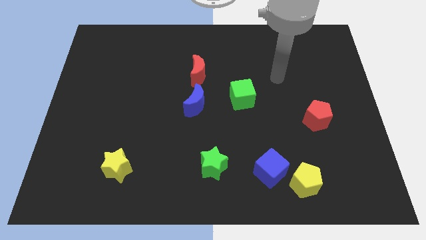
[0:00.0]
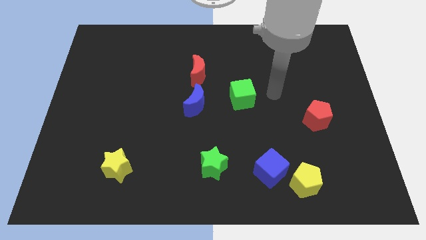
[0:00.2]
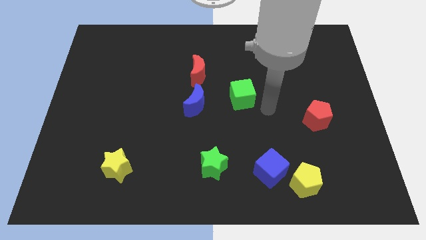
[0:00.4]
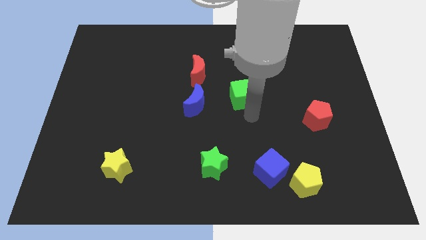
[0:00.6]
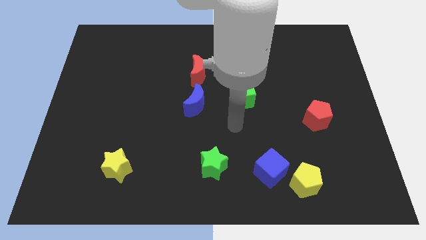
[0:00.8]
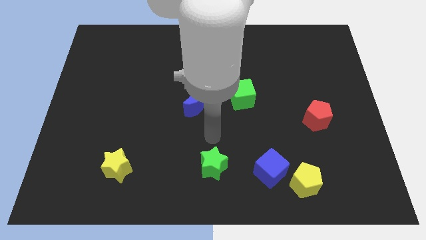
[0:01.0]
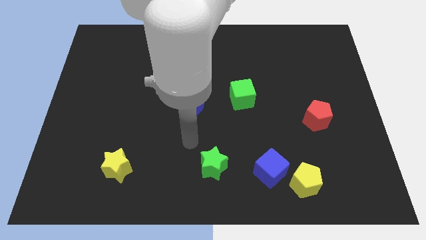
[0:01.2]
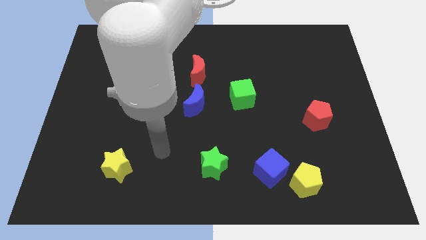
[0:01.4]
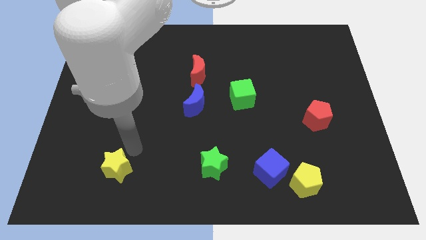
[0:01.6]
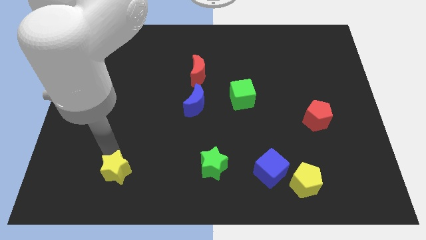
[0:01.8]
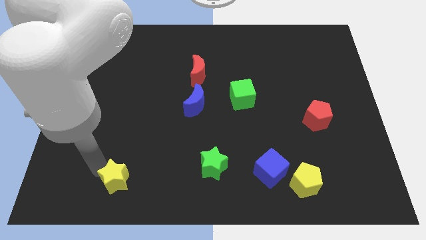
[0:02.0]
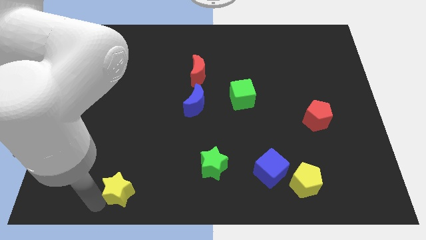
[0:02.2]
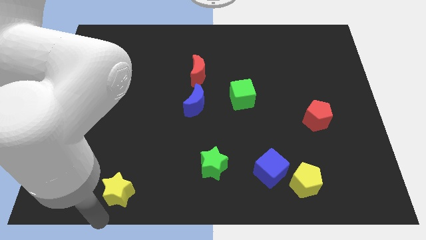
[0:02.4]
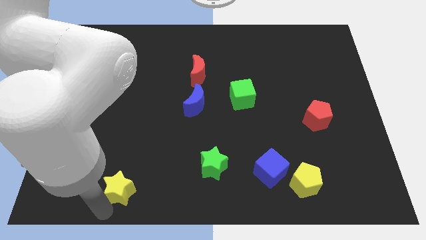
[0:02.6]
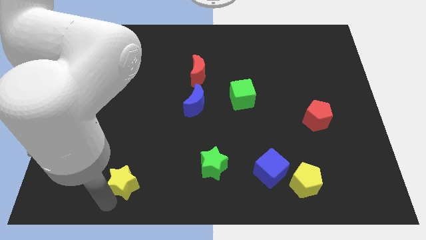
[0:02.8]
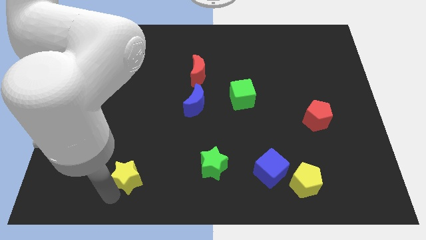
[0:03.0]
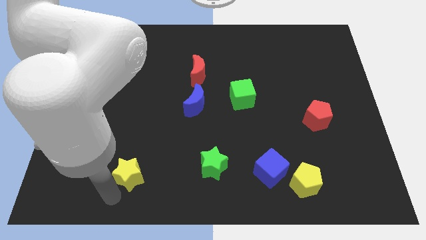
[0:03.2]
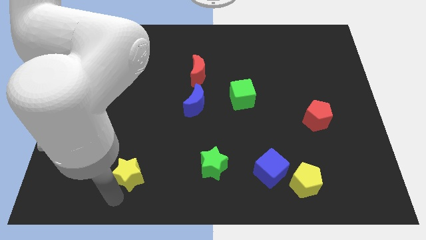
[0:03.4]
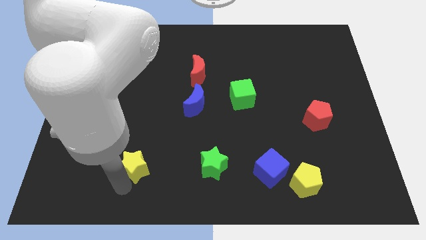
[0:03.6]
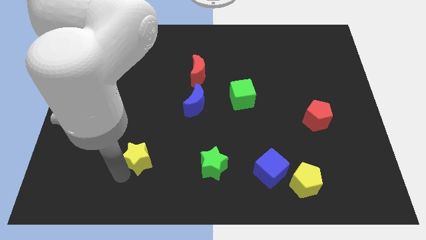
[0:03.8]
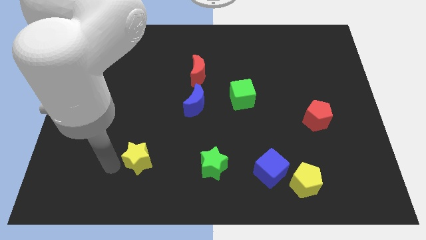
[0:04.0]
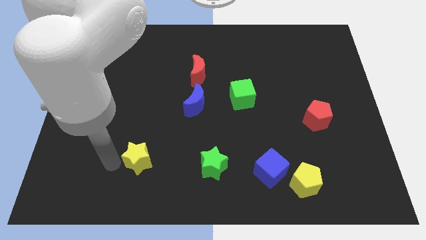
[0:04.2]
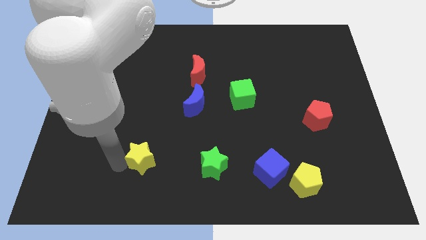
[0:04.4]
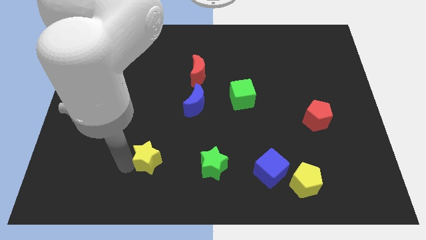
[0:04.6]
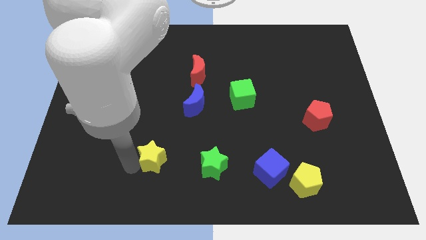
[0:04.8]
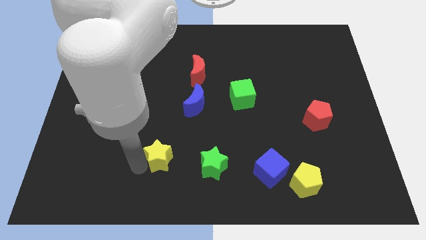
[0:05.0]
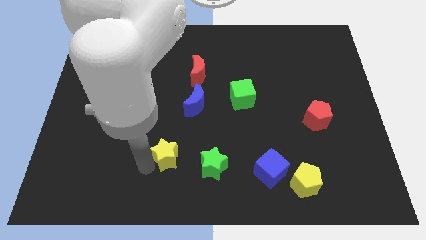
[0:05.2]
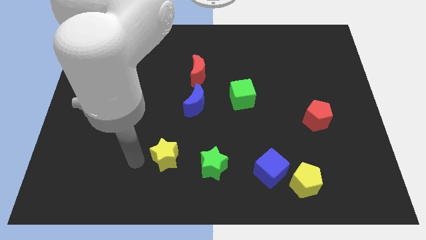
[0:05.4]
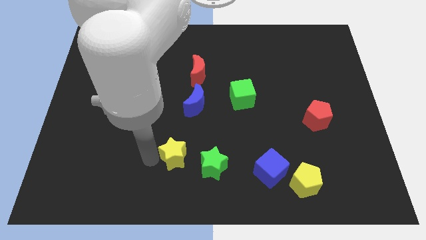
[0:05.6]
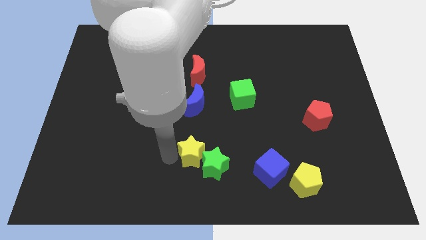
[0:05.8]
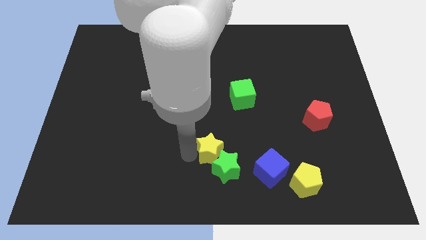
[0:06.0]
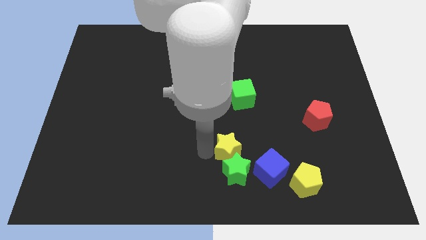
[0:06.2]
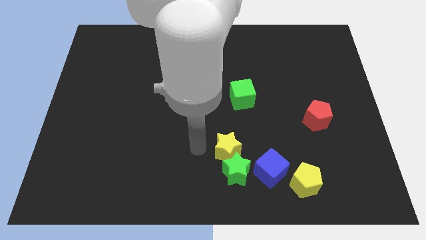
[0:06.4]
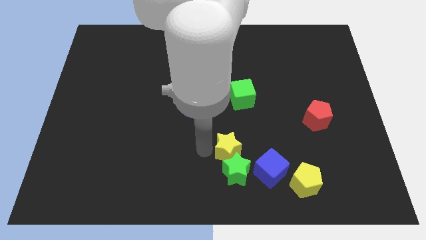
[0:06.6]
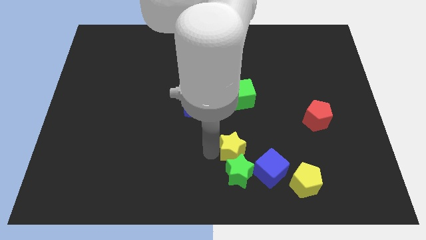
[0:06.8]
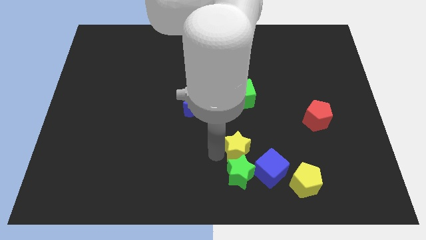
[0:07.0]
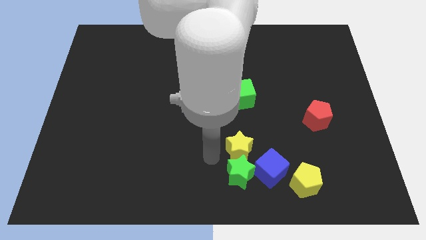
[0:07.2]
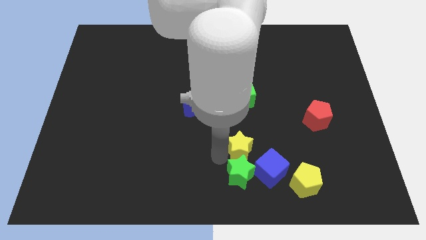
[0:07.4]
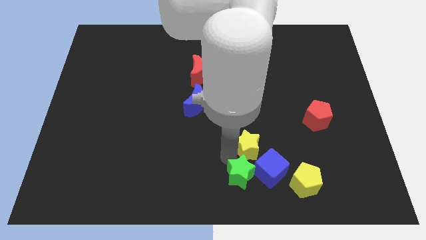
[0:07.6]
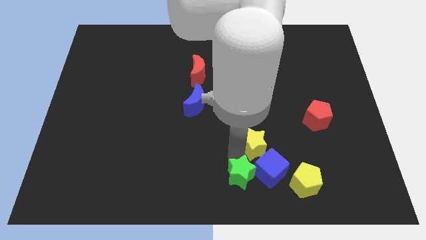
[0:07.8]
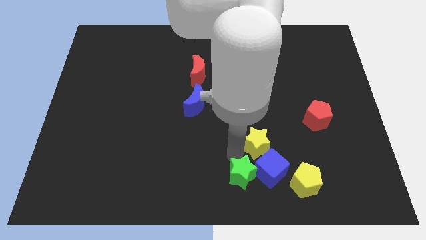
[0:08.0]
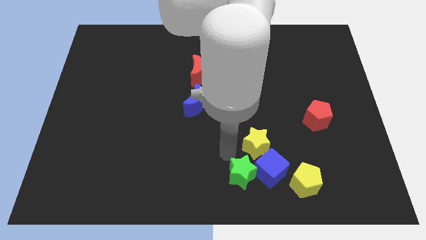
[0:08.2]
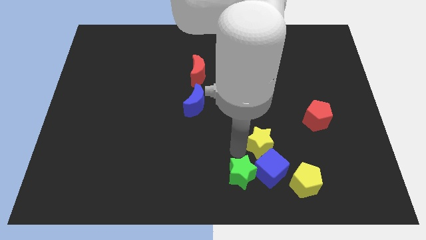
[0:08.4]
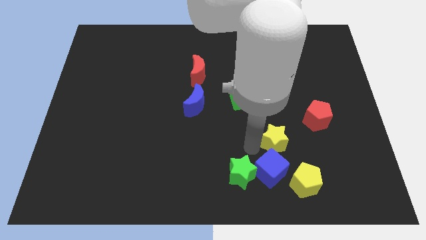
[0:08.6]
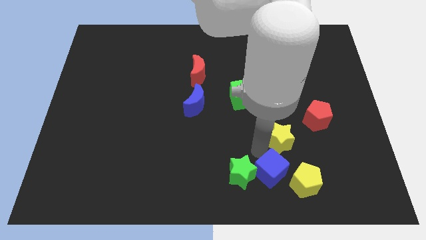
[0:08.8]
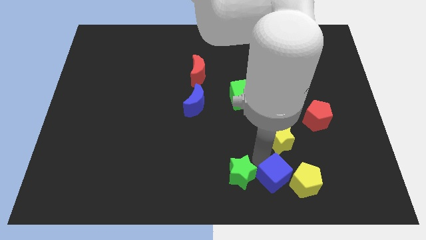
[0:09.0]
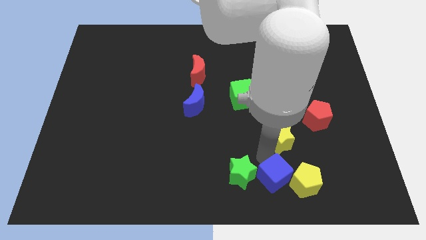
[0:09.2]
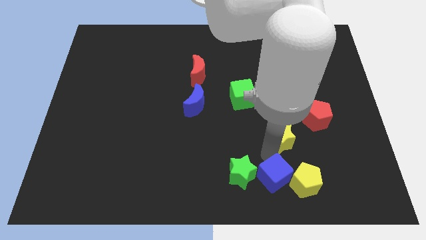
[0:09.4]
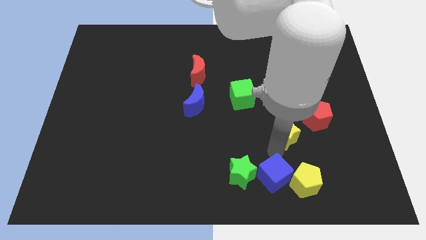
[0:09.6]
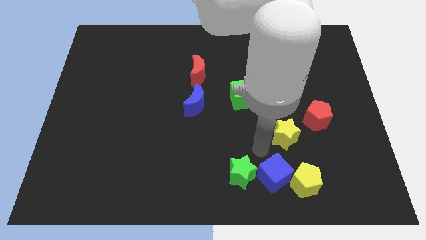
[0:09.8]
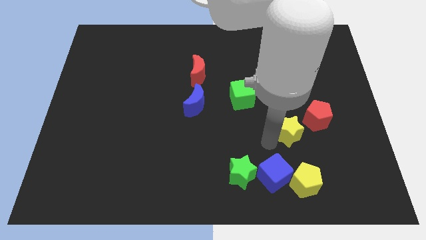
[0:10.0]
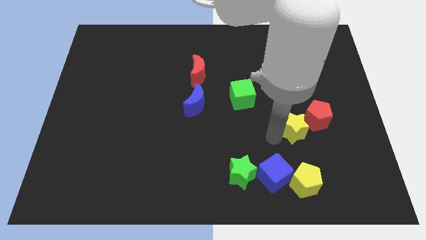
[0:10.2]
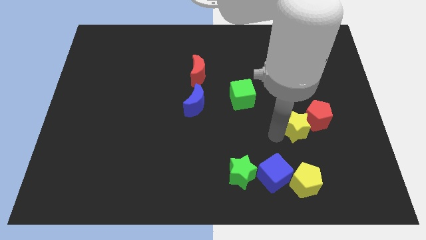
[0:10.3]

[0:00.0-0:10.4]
move the yellow star next to the red pentagon

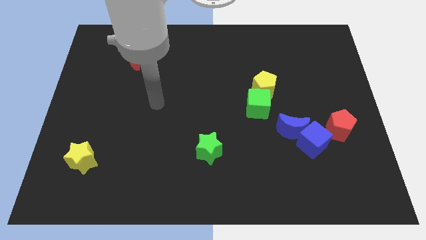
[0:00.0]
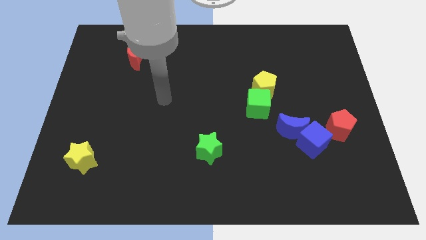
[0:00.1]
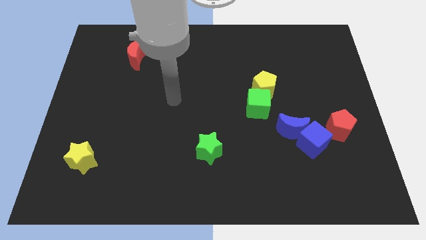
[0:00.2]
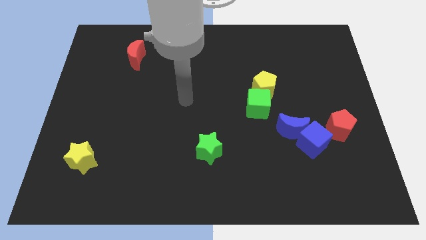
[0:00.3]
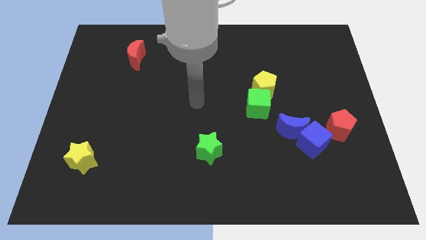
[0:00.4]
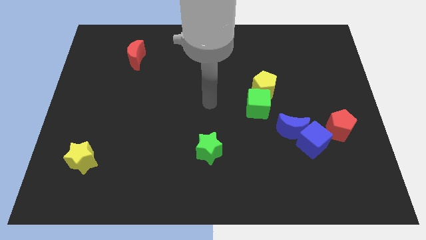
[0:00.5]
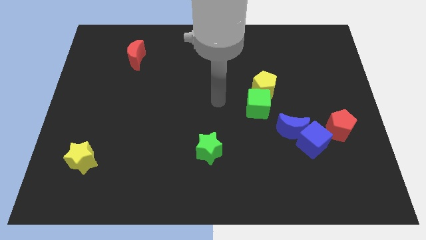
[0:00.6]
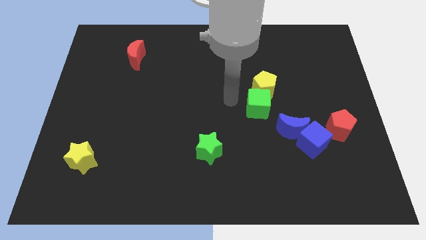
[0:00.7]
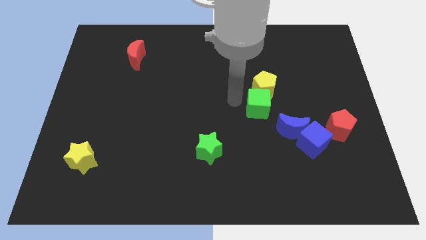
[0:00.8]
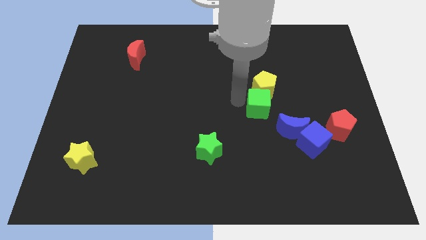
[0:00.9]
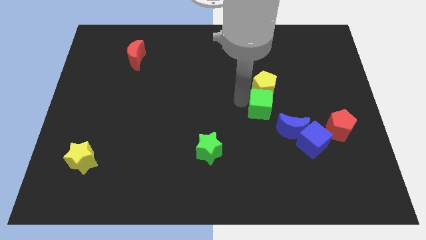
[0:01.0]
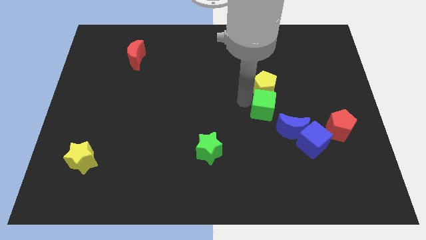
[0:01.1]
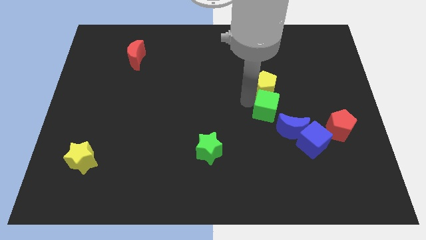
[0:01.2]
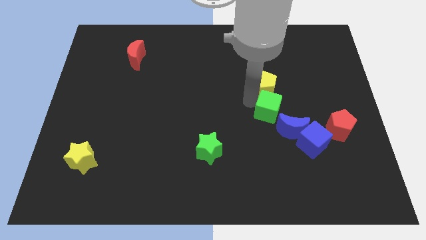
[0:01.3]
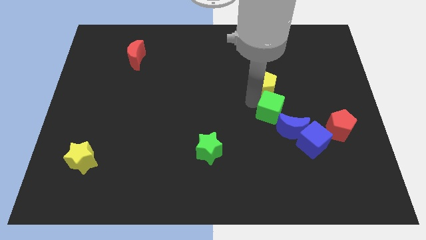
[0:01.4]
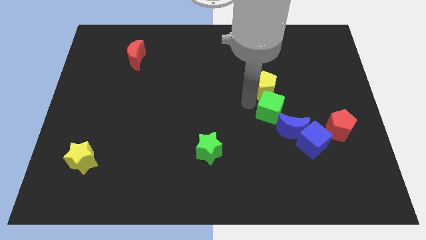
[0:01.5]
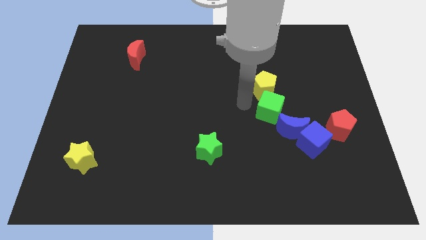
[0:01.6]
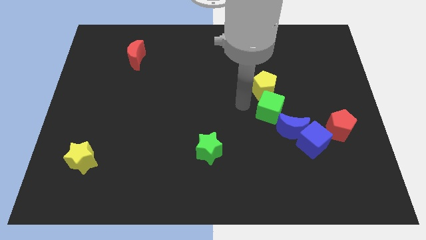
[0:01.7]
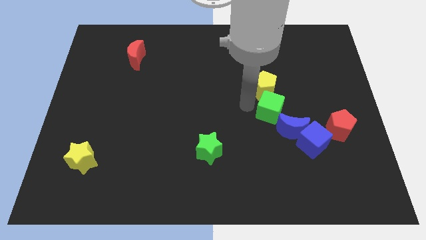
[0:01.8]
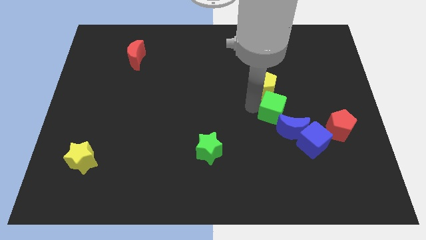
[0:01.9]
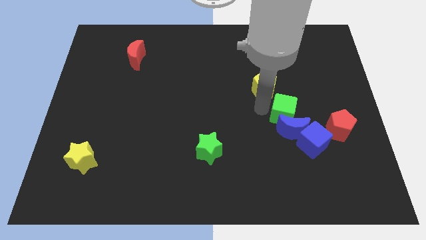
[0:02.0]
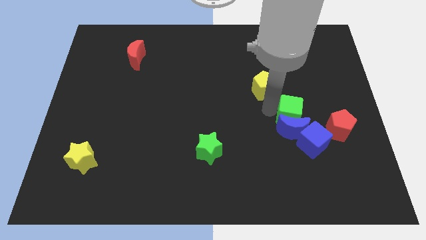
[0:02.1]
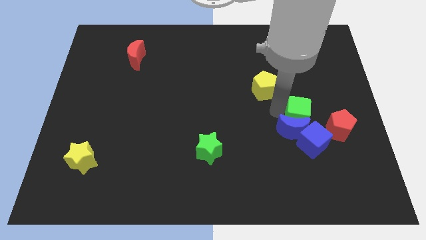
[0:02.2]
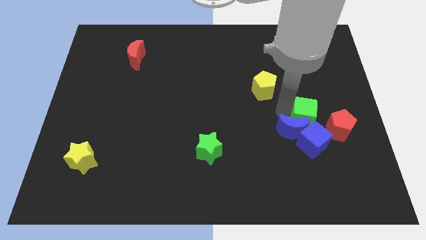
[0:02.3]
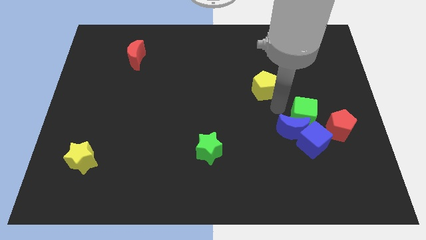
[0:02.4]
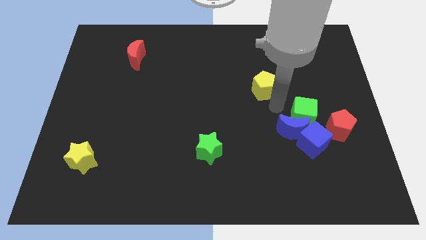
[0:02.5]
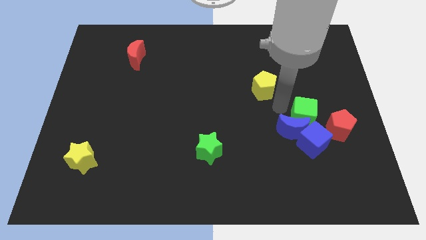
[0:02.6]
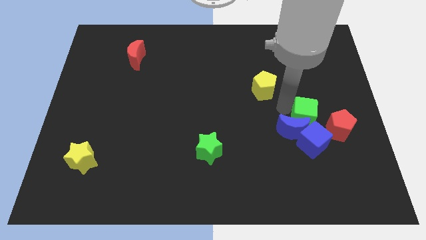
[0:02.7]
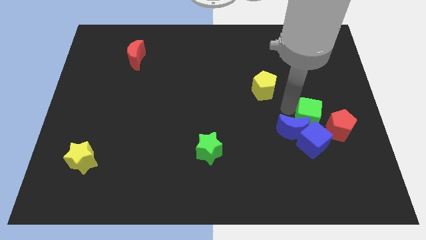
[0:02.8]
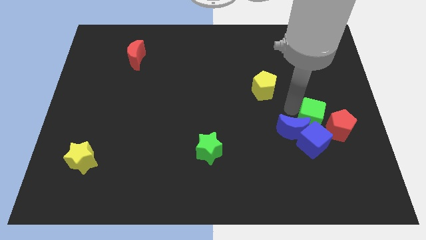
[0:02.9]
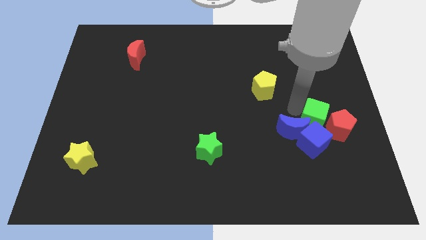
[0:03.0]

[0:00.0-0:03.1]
put the green cube towards the red pentagon
